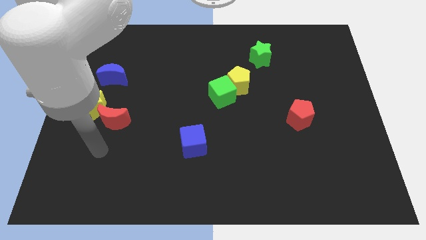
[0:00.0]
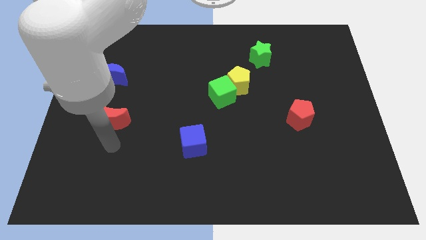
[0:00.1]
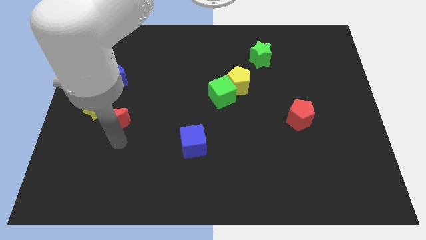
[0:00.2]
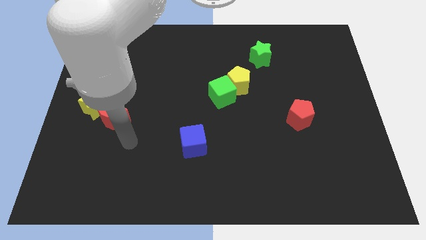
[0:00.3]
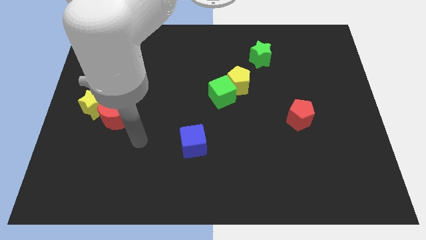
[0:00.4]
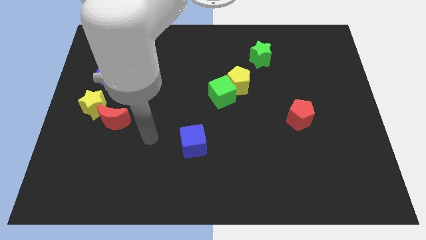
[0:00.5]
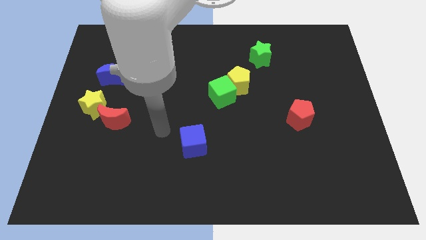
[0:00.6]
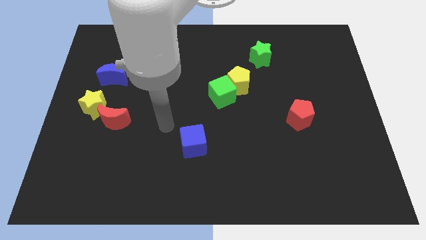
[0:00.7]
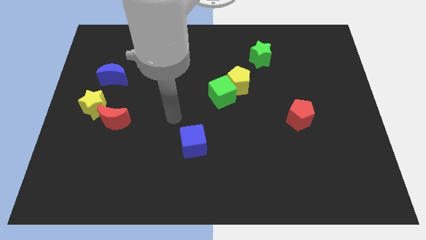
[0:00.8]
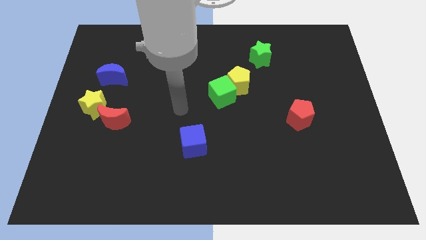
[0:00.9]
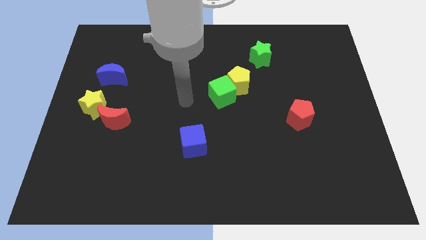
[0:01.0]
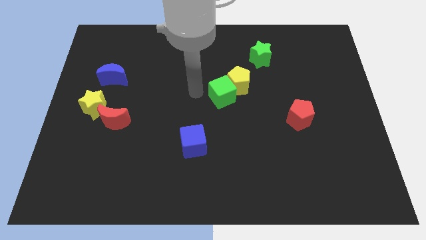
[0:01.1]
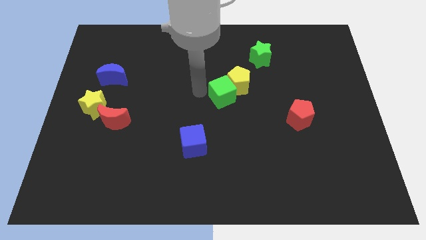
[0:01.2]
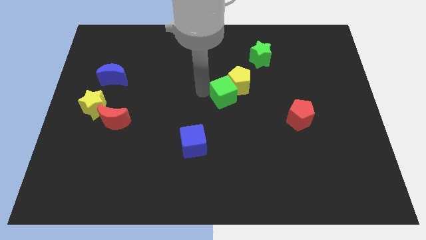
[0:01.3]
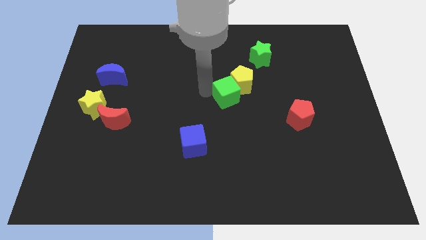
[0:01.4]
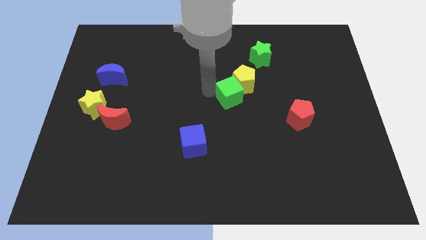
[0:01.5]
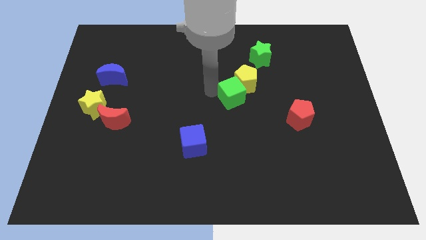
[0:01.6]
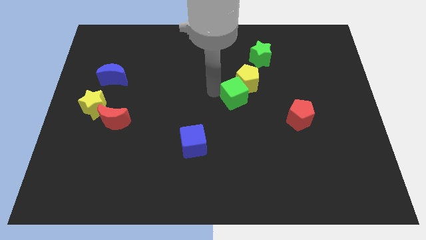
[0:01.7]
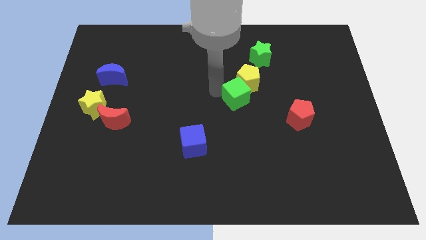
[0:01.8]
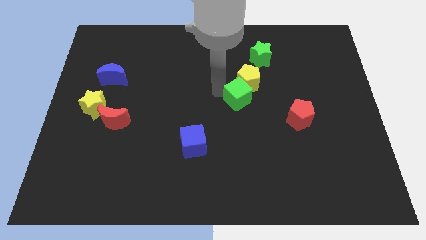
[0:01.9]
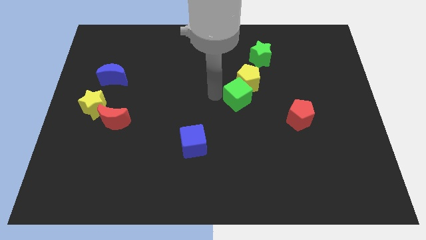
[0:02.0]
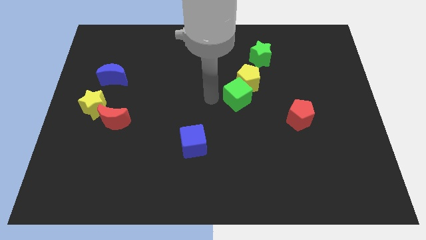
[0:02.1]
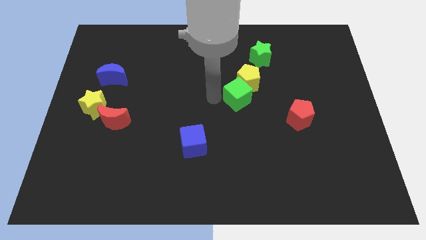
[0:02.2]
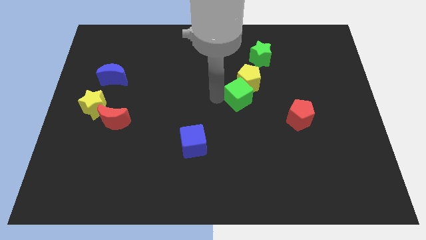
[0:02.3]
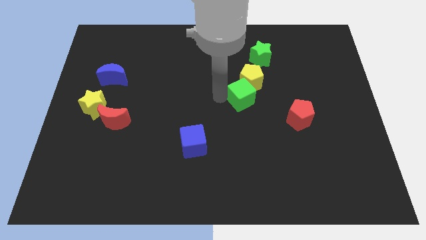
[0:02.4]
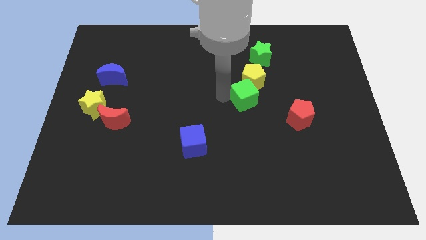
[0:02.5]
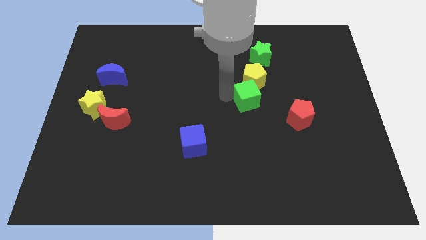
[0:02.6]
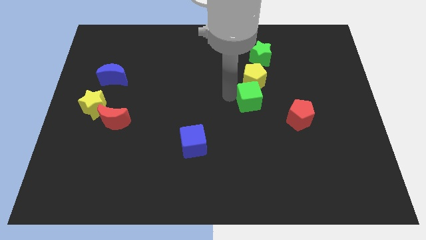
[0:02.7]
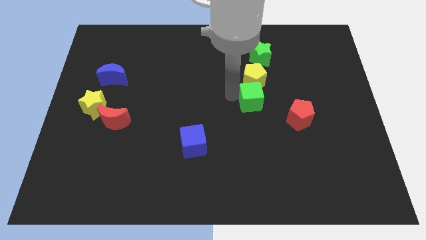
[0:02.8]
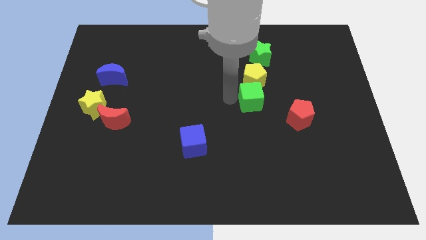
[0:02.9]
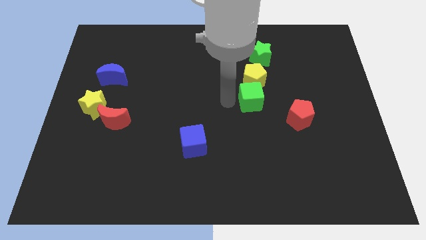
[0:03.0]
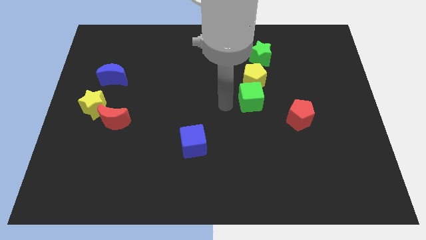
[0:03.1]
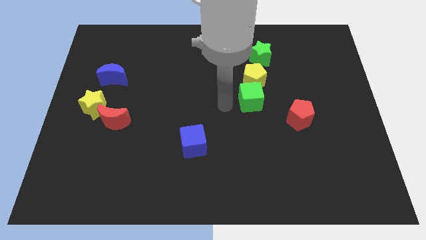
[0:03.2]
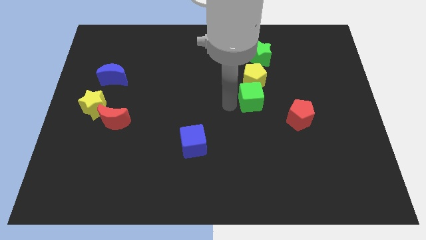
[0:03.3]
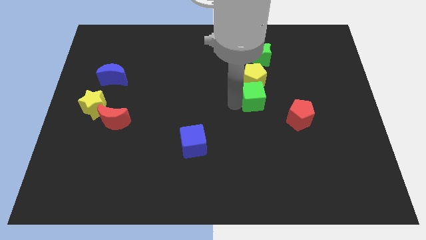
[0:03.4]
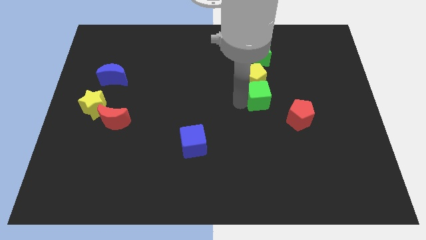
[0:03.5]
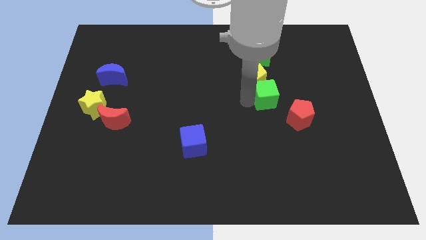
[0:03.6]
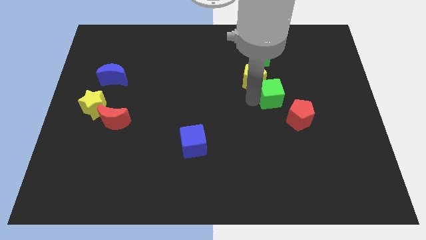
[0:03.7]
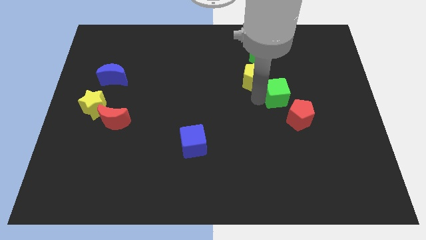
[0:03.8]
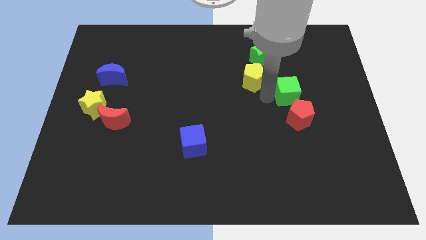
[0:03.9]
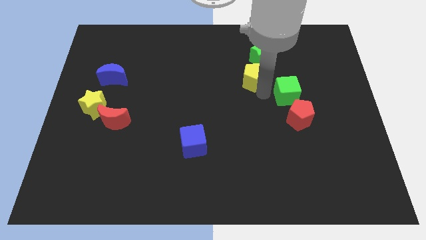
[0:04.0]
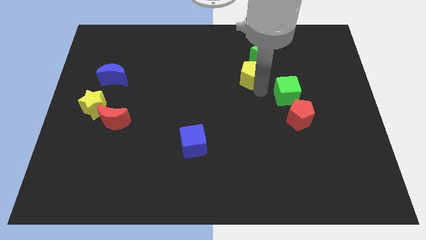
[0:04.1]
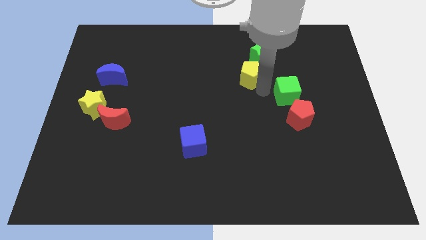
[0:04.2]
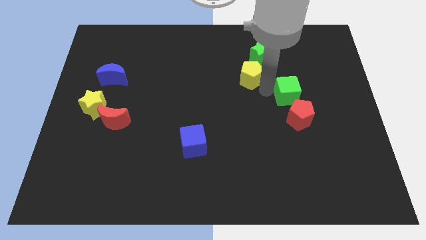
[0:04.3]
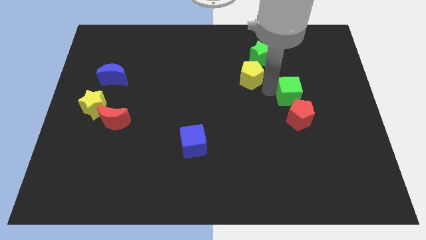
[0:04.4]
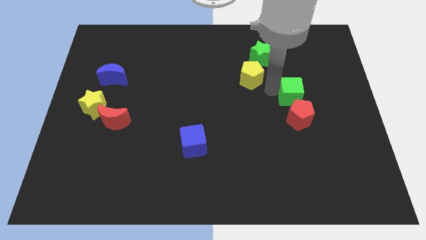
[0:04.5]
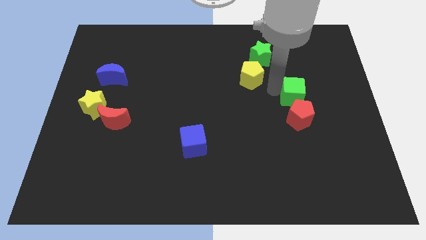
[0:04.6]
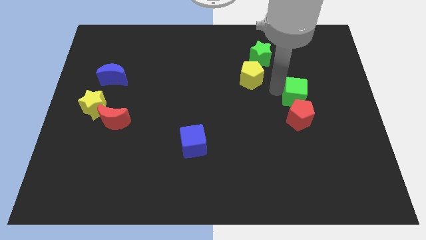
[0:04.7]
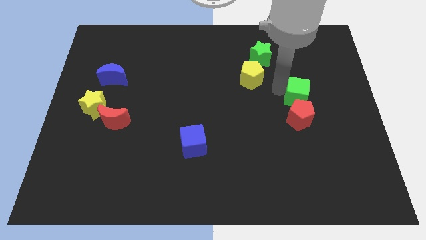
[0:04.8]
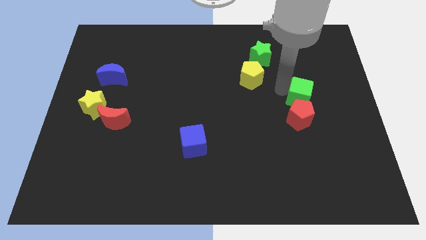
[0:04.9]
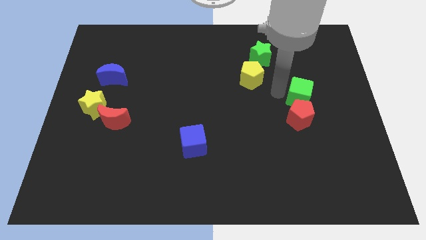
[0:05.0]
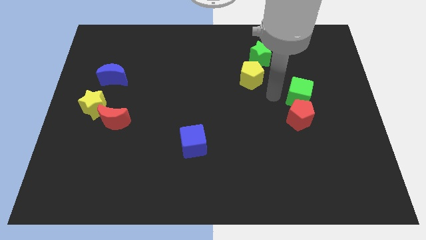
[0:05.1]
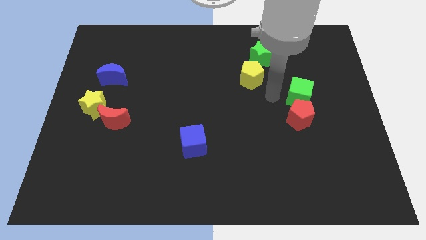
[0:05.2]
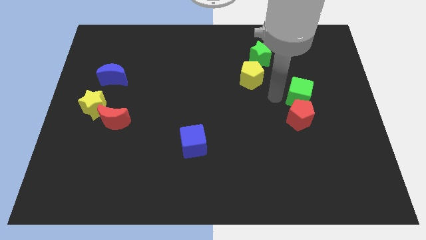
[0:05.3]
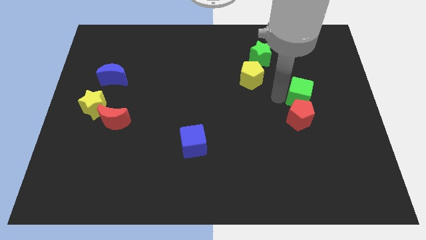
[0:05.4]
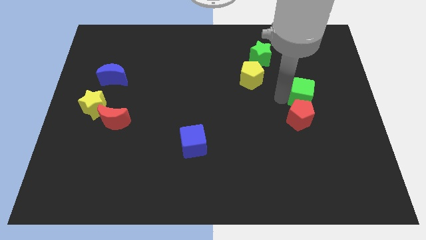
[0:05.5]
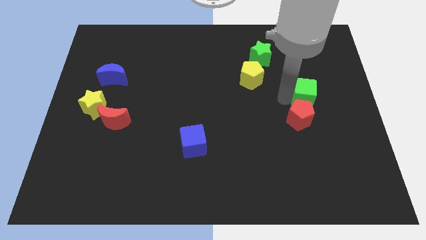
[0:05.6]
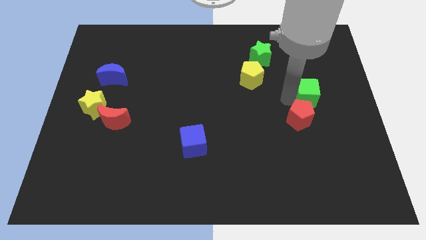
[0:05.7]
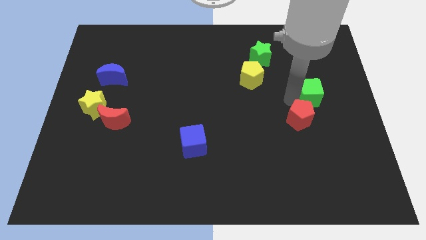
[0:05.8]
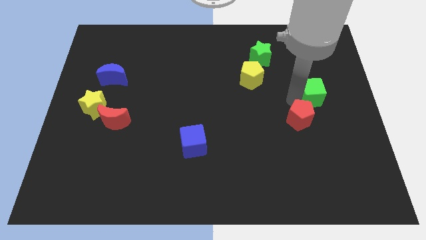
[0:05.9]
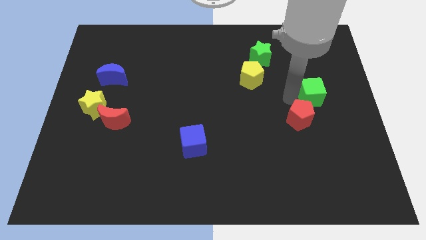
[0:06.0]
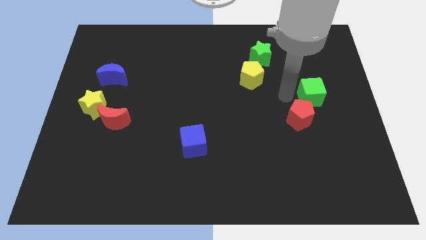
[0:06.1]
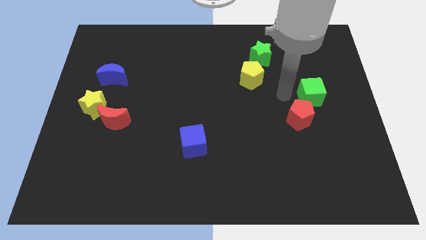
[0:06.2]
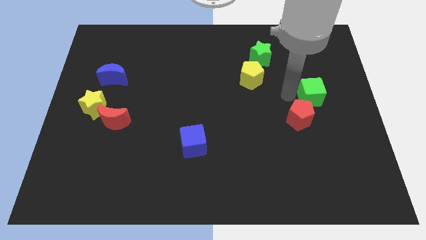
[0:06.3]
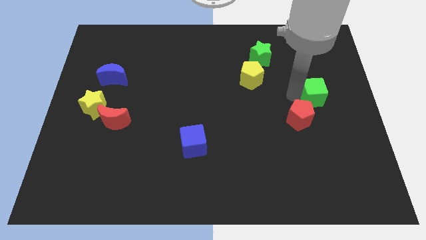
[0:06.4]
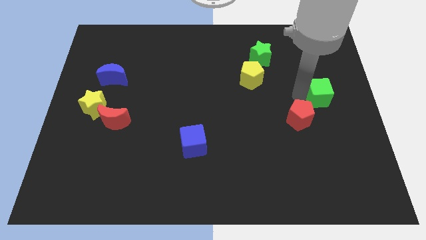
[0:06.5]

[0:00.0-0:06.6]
slide the green cube to the right side

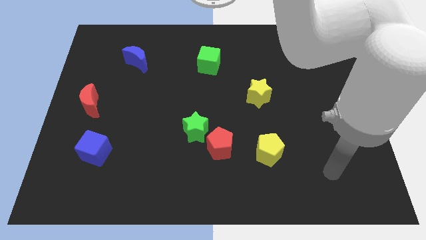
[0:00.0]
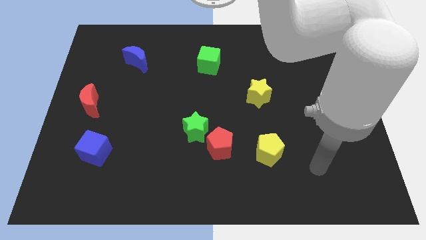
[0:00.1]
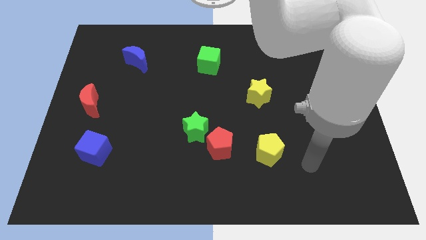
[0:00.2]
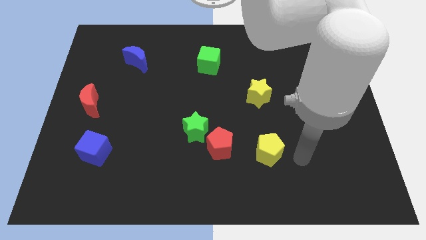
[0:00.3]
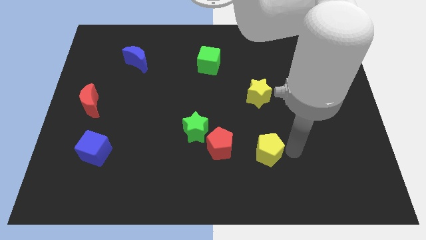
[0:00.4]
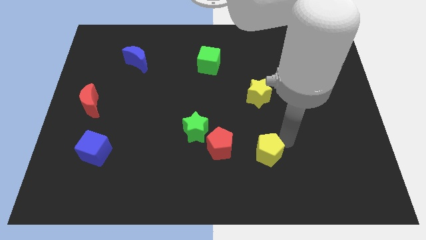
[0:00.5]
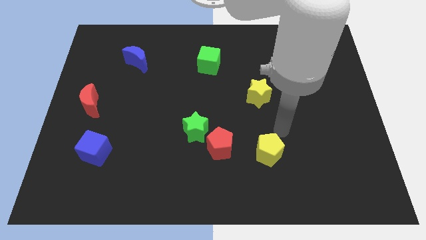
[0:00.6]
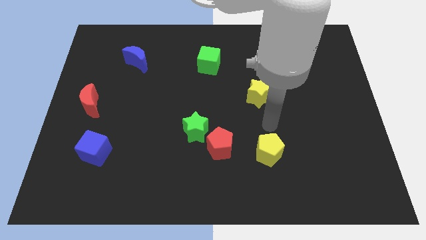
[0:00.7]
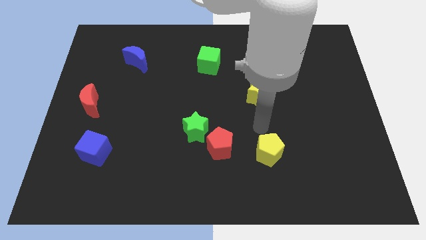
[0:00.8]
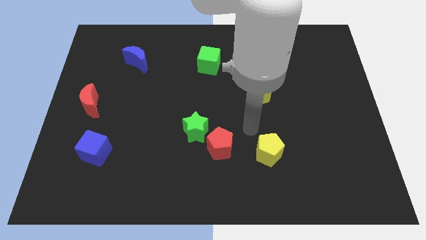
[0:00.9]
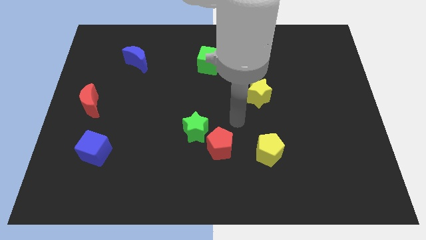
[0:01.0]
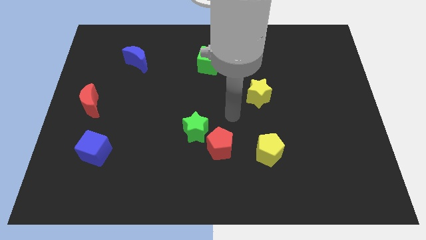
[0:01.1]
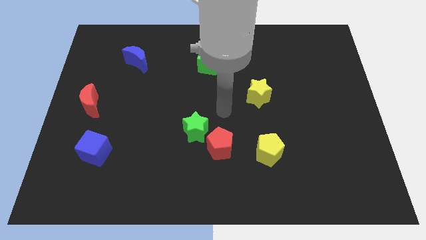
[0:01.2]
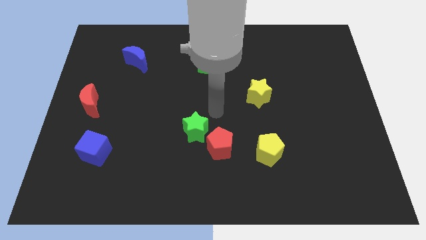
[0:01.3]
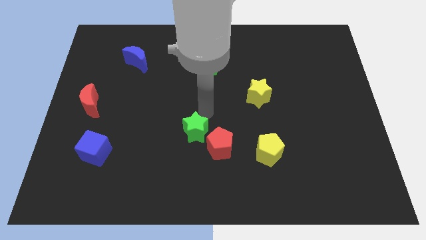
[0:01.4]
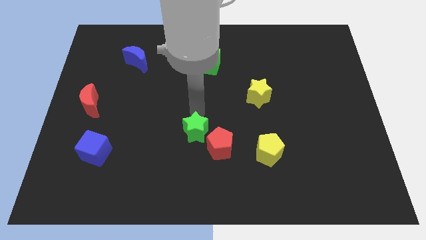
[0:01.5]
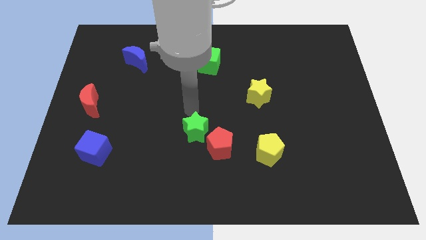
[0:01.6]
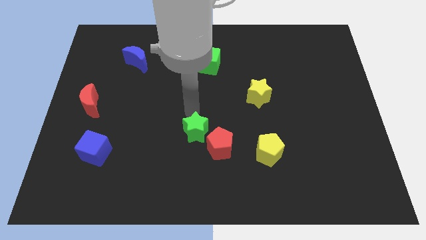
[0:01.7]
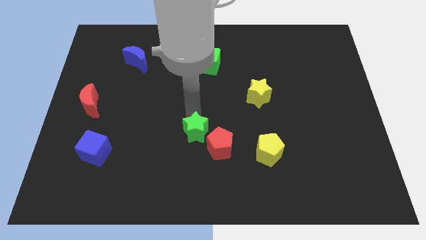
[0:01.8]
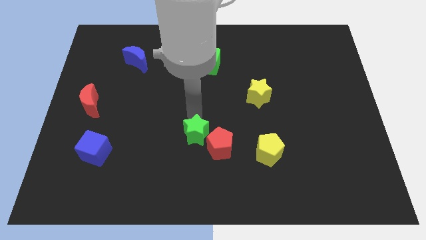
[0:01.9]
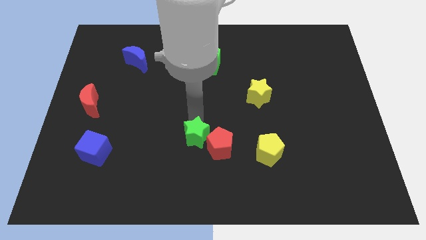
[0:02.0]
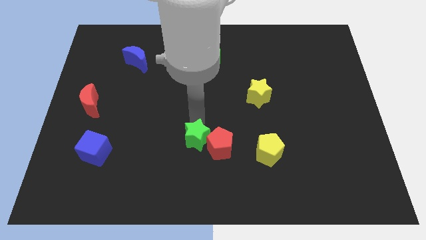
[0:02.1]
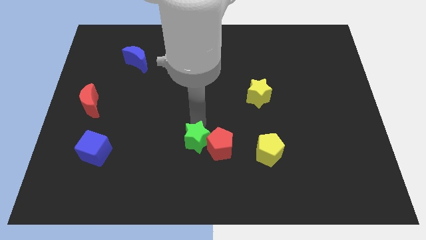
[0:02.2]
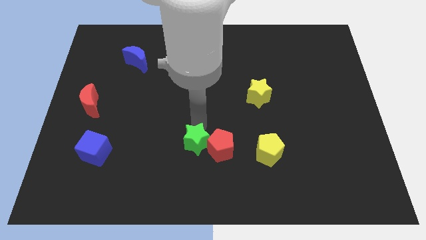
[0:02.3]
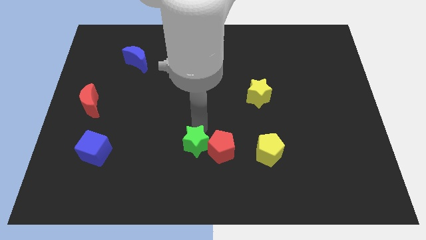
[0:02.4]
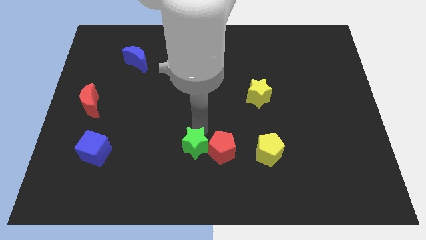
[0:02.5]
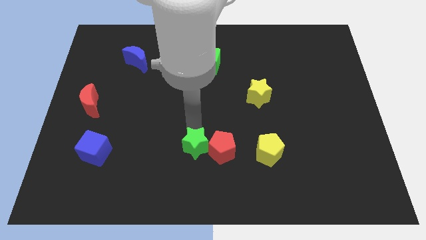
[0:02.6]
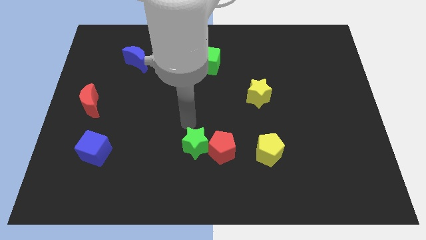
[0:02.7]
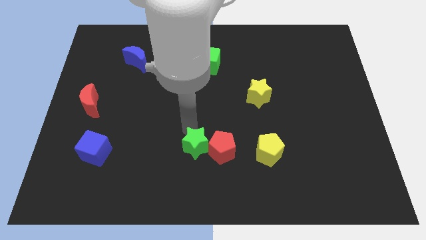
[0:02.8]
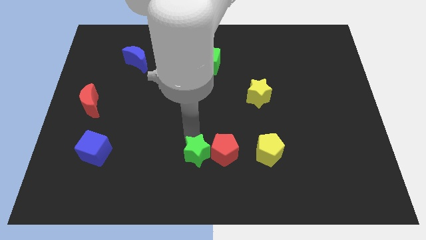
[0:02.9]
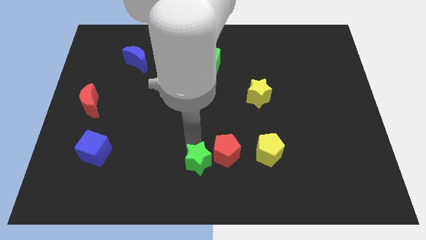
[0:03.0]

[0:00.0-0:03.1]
move the green star to the bottom side
